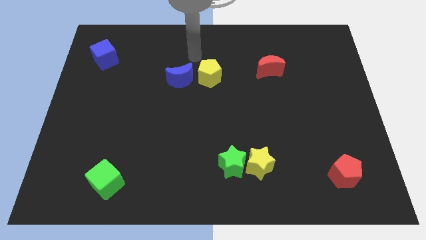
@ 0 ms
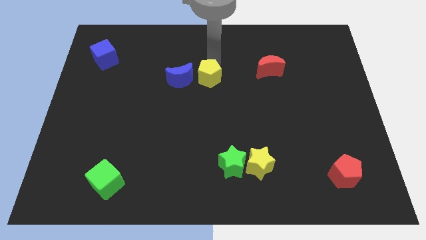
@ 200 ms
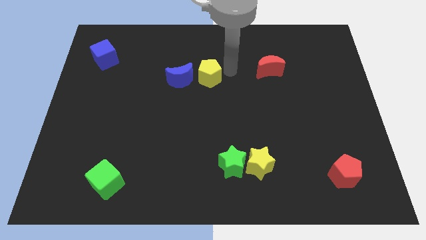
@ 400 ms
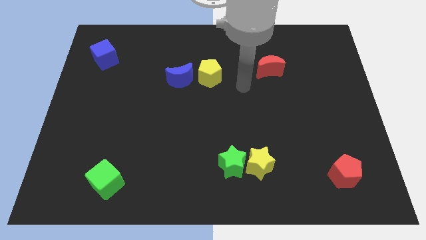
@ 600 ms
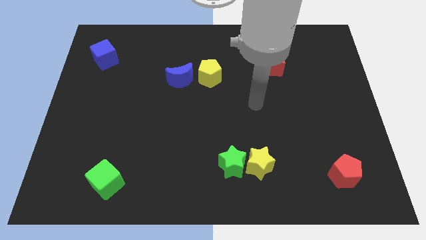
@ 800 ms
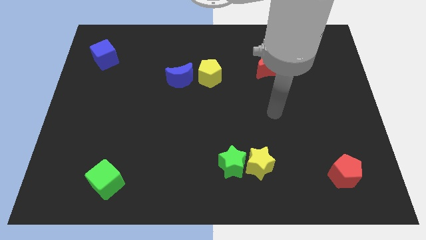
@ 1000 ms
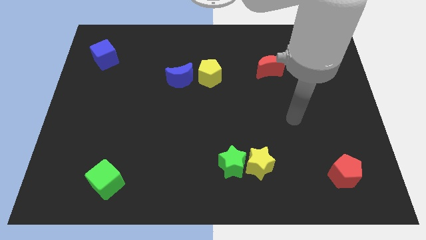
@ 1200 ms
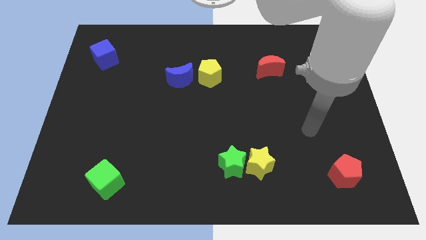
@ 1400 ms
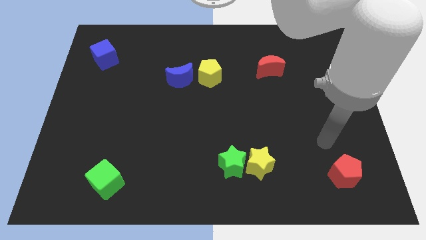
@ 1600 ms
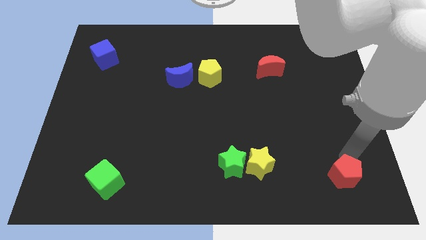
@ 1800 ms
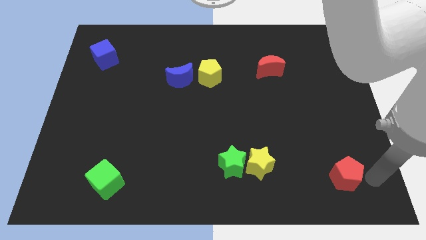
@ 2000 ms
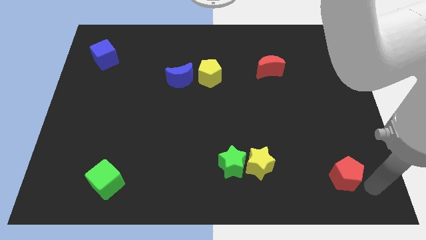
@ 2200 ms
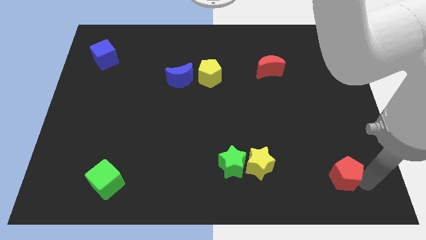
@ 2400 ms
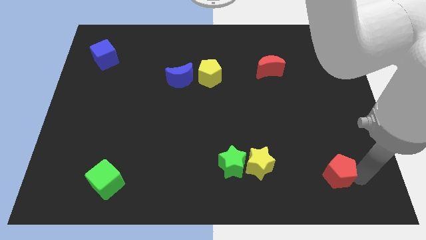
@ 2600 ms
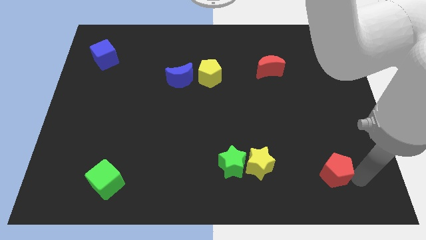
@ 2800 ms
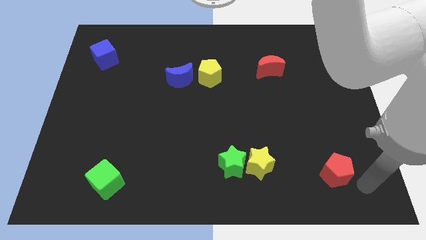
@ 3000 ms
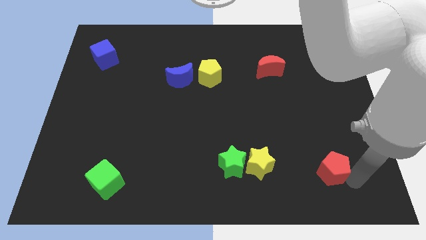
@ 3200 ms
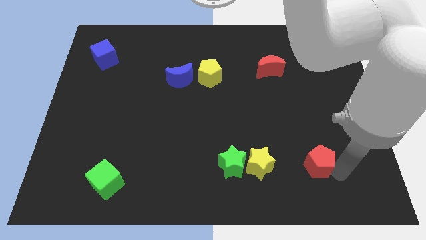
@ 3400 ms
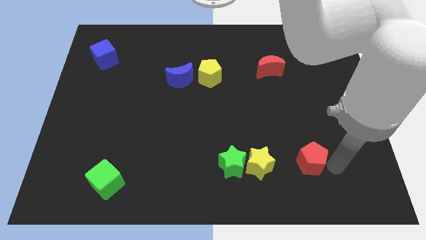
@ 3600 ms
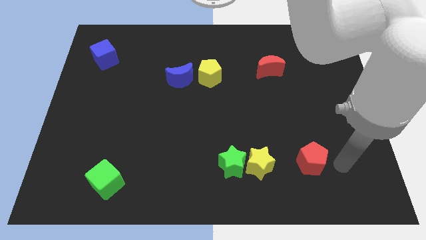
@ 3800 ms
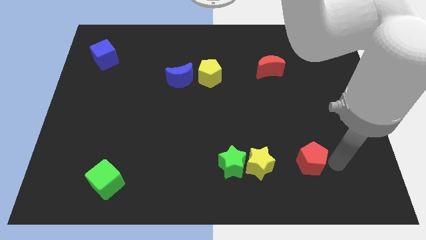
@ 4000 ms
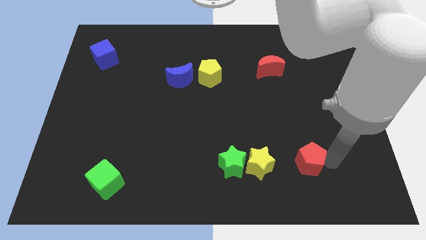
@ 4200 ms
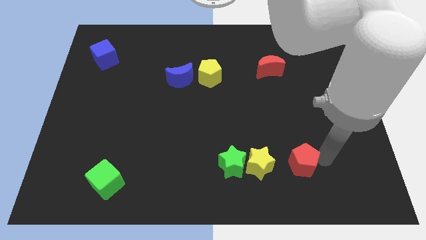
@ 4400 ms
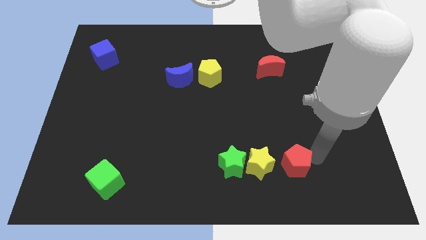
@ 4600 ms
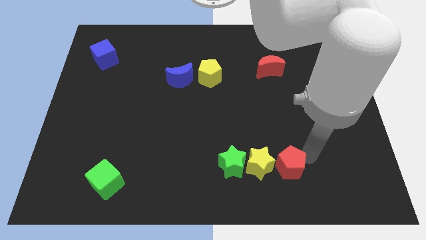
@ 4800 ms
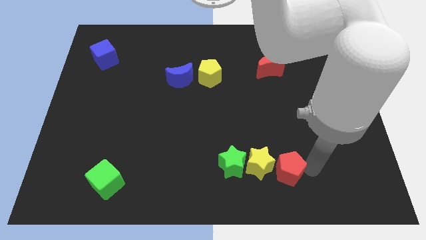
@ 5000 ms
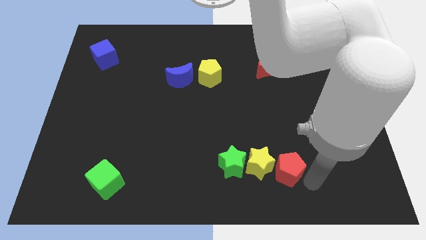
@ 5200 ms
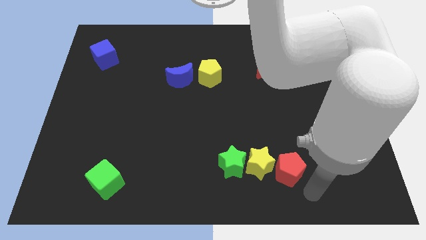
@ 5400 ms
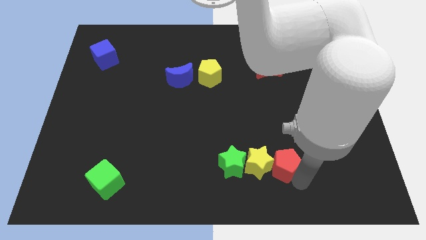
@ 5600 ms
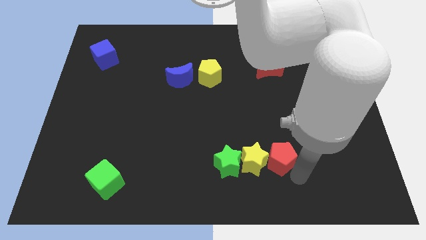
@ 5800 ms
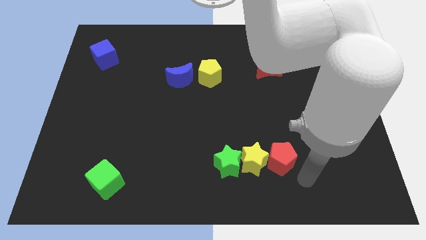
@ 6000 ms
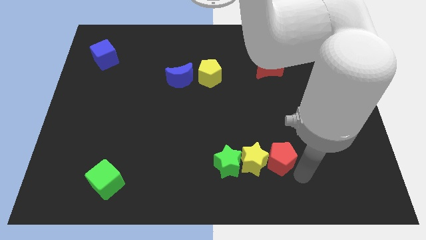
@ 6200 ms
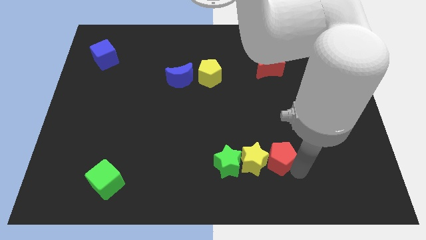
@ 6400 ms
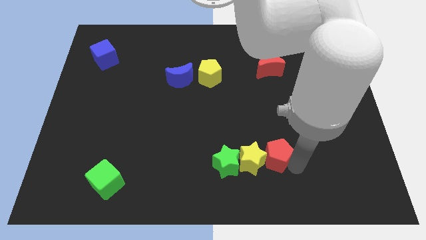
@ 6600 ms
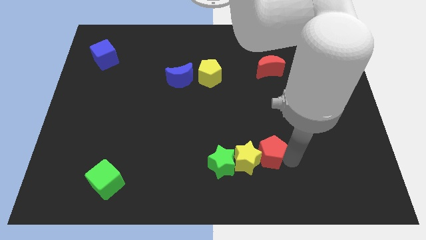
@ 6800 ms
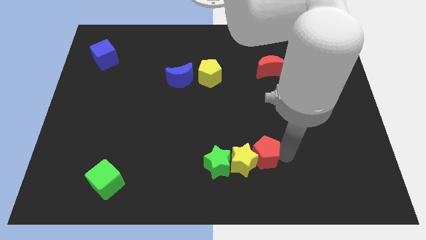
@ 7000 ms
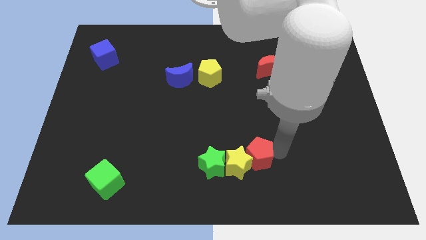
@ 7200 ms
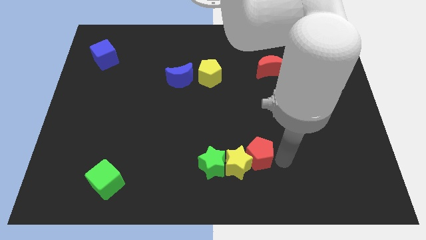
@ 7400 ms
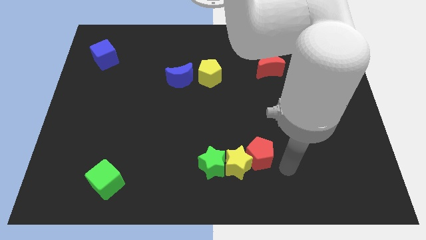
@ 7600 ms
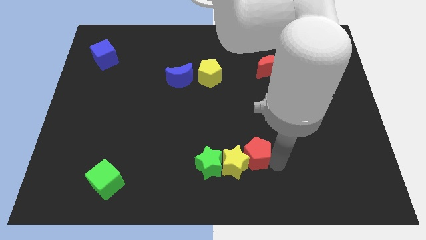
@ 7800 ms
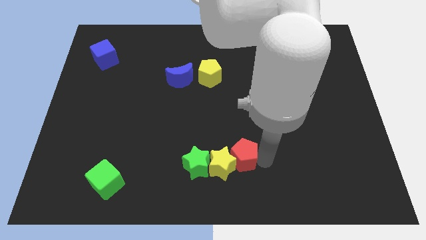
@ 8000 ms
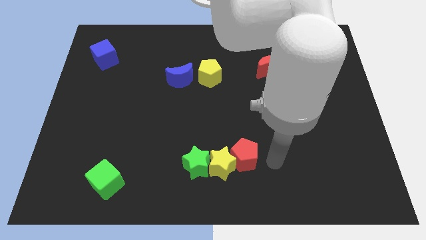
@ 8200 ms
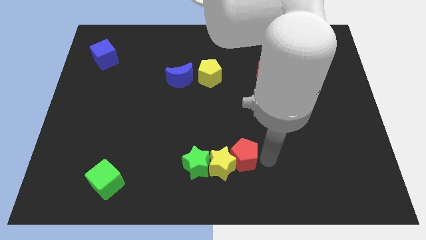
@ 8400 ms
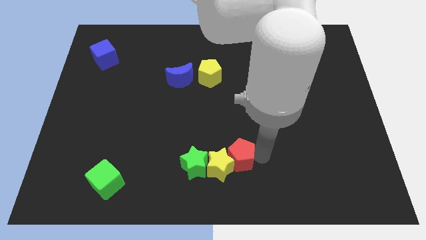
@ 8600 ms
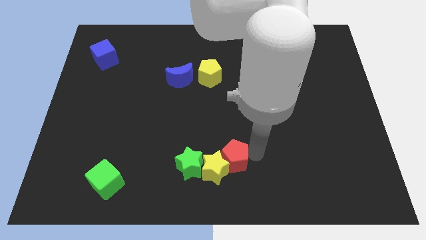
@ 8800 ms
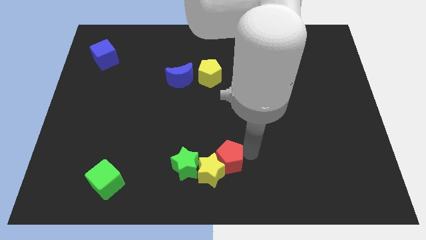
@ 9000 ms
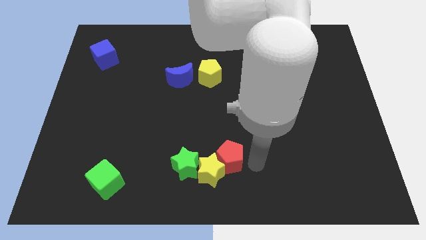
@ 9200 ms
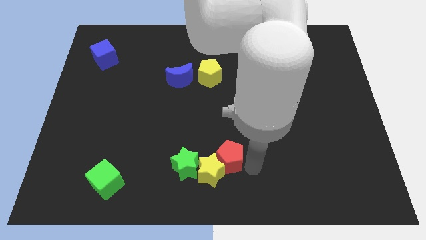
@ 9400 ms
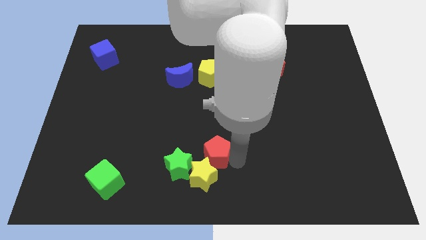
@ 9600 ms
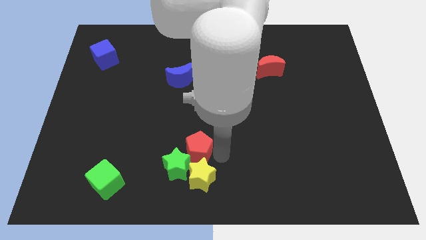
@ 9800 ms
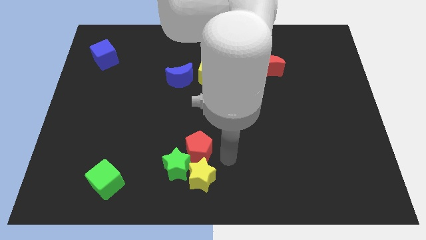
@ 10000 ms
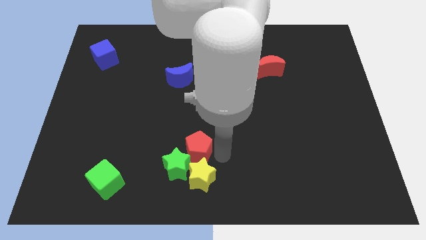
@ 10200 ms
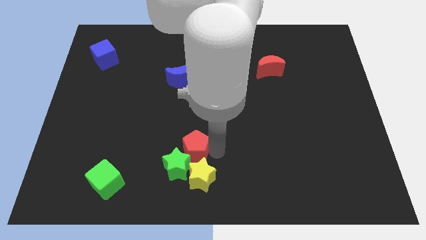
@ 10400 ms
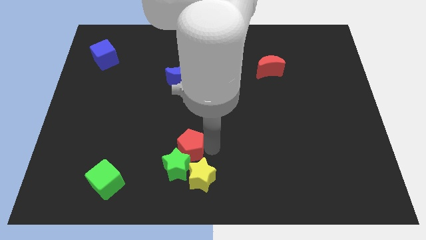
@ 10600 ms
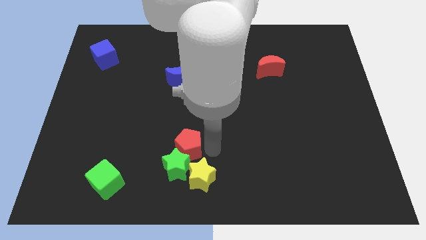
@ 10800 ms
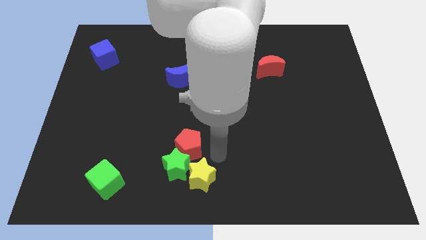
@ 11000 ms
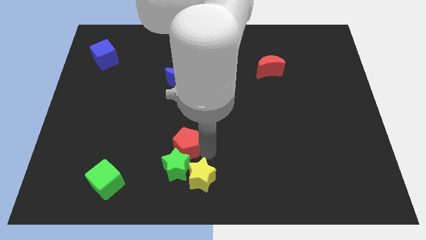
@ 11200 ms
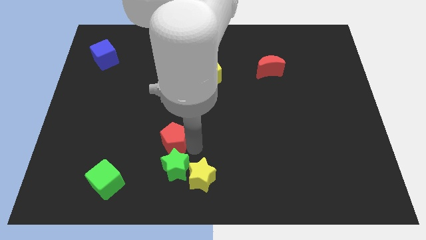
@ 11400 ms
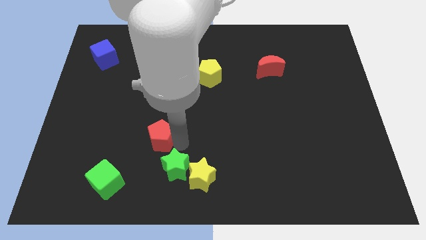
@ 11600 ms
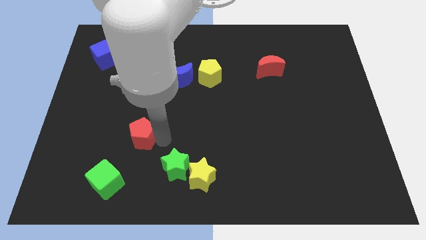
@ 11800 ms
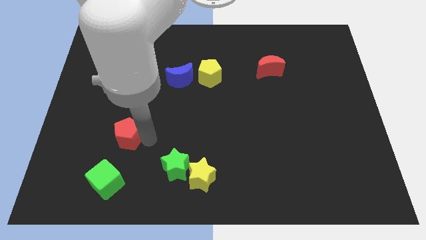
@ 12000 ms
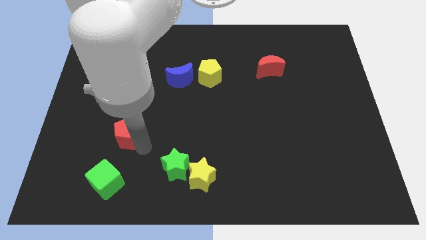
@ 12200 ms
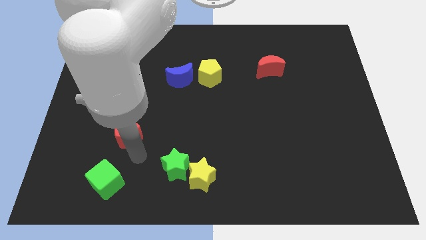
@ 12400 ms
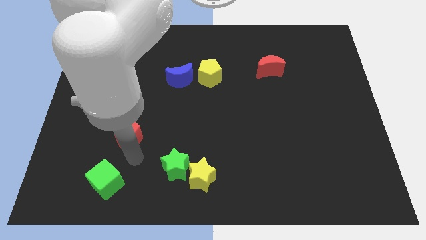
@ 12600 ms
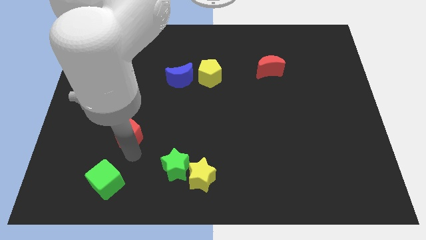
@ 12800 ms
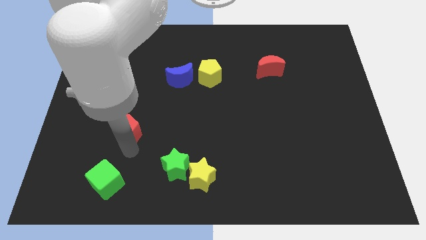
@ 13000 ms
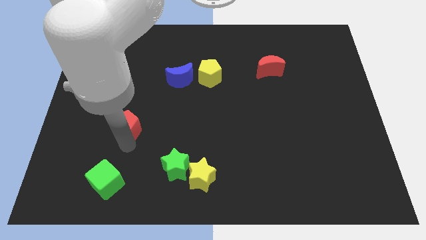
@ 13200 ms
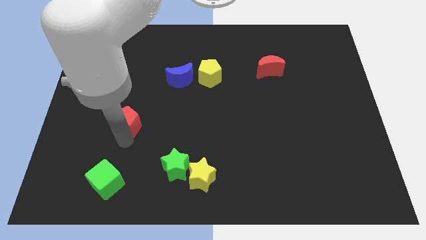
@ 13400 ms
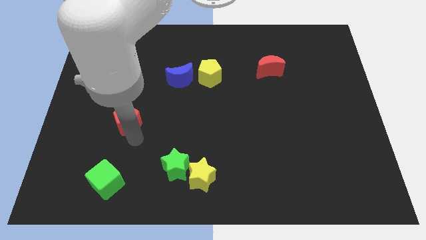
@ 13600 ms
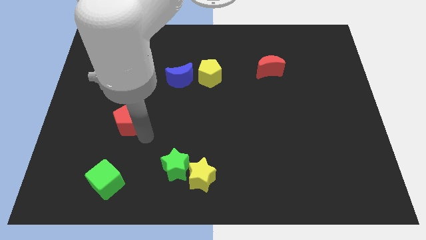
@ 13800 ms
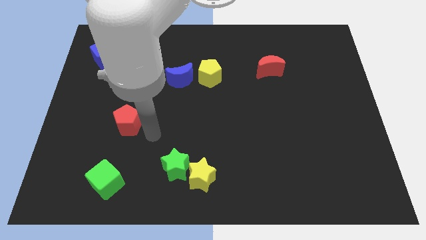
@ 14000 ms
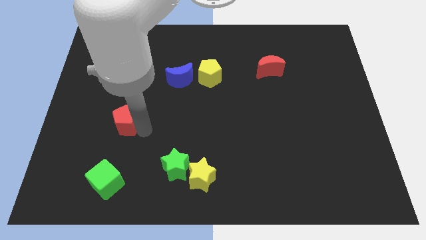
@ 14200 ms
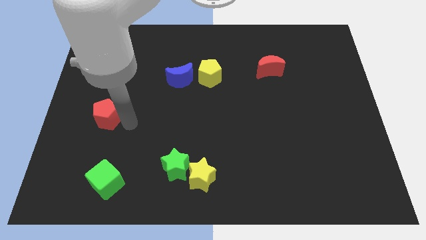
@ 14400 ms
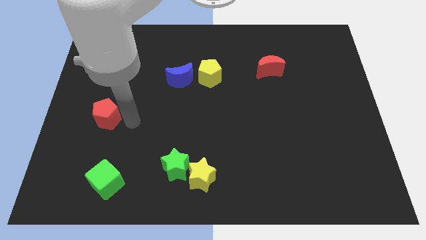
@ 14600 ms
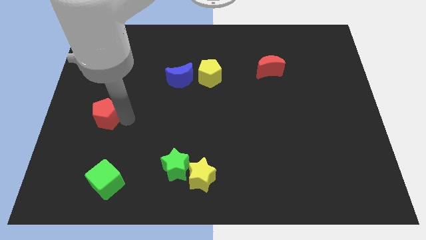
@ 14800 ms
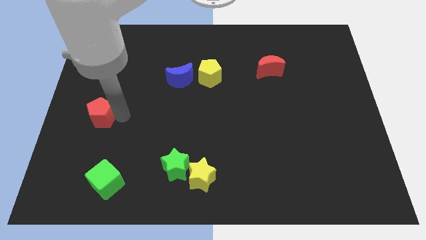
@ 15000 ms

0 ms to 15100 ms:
push the red pentagon to the left side
